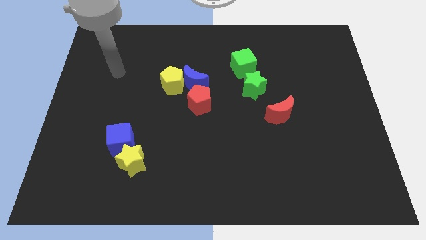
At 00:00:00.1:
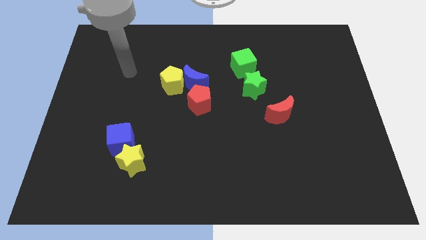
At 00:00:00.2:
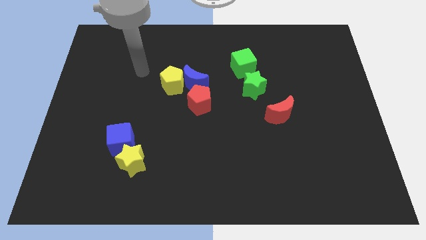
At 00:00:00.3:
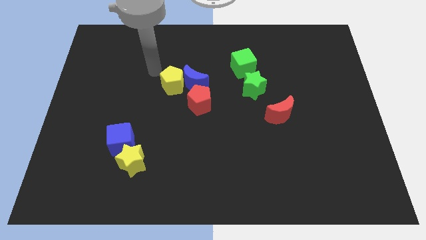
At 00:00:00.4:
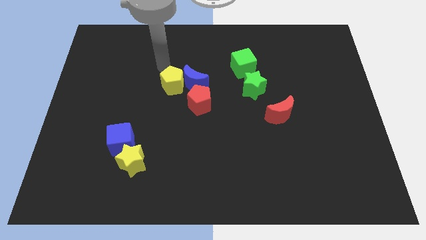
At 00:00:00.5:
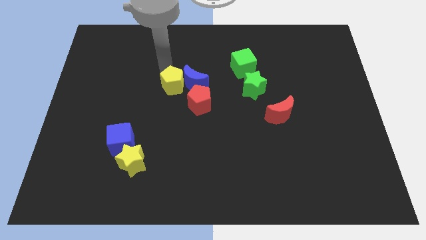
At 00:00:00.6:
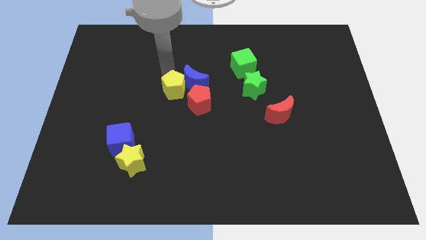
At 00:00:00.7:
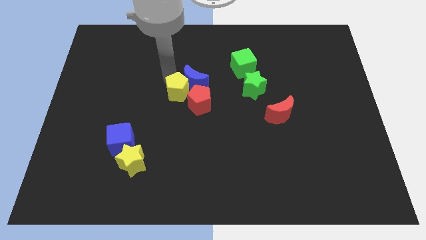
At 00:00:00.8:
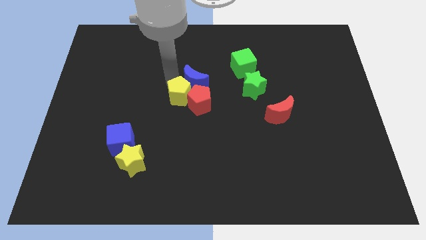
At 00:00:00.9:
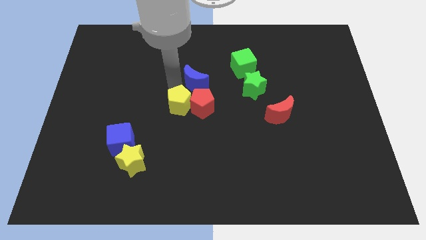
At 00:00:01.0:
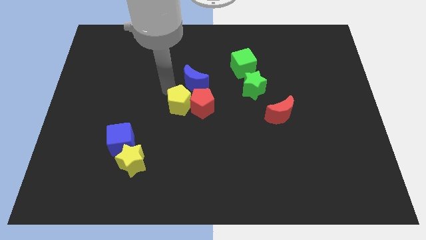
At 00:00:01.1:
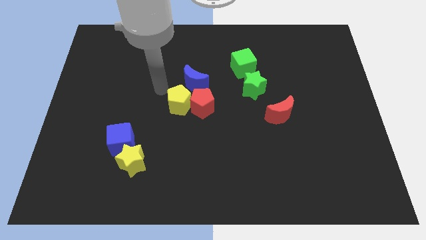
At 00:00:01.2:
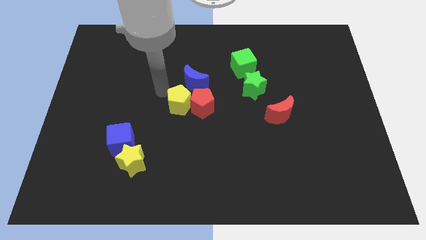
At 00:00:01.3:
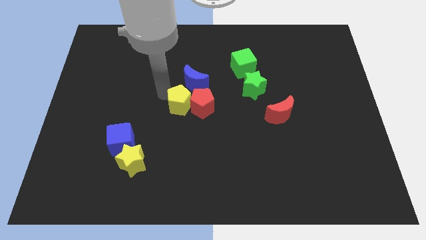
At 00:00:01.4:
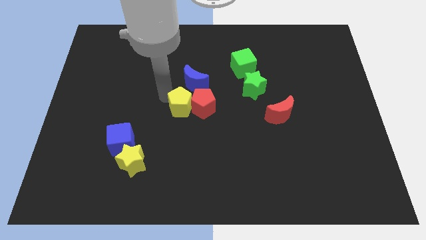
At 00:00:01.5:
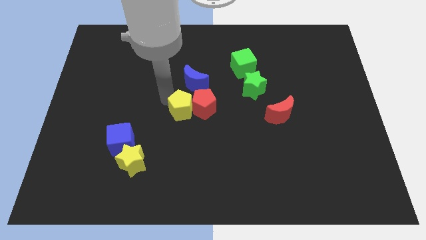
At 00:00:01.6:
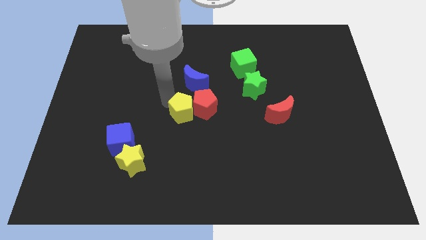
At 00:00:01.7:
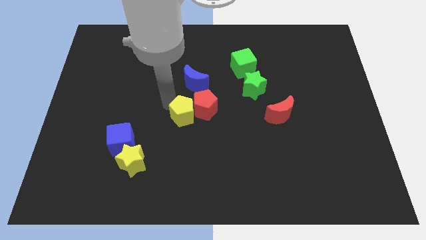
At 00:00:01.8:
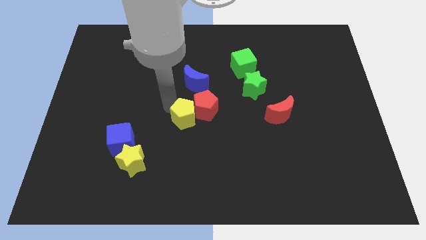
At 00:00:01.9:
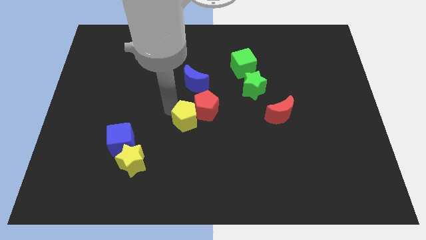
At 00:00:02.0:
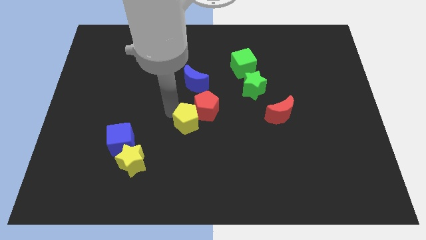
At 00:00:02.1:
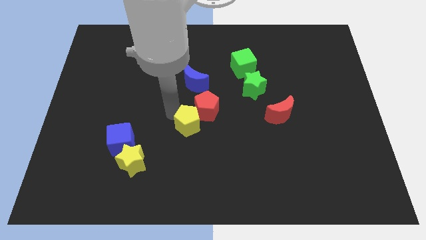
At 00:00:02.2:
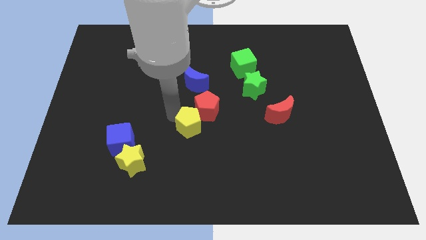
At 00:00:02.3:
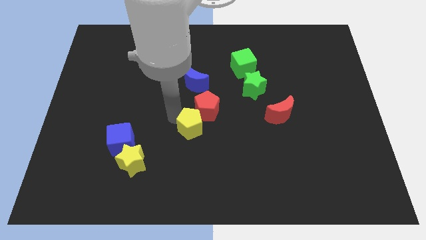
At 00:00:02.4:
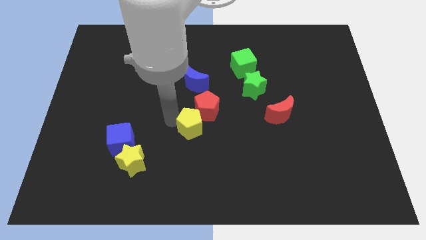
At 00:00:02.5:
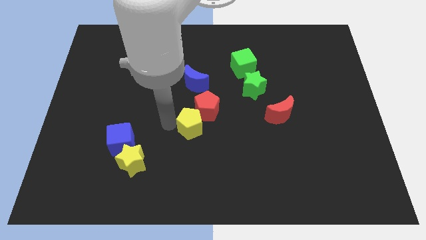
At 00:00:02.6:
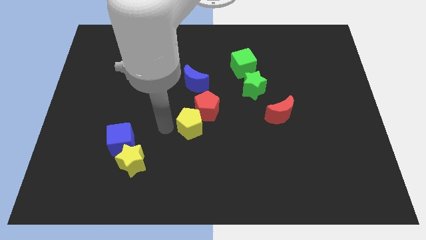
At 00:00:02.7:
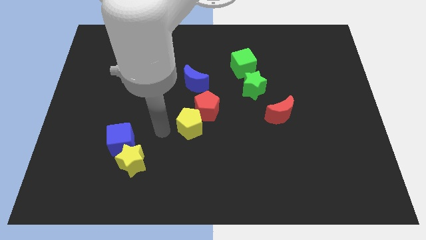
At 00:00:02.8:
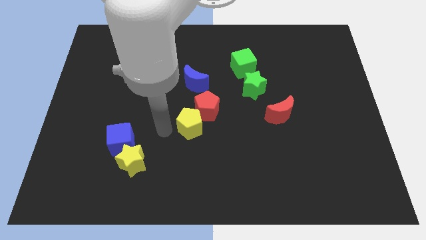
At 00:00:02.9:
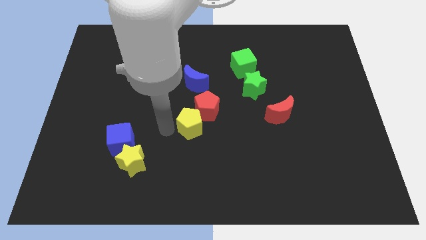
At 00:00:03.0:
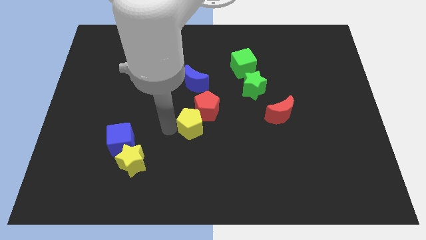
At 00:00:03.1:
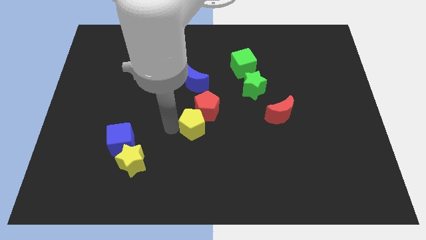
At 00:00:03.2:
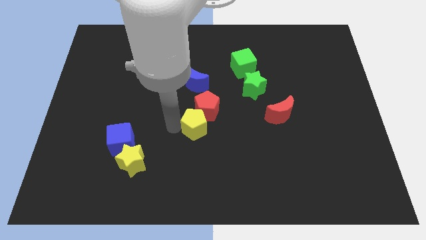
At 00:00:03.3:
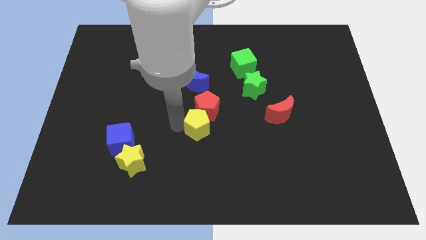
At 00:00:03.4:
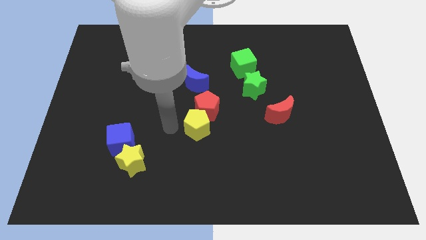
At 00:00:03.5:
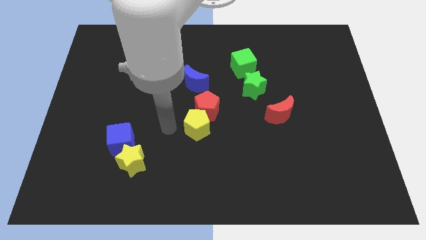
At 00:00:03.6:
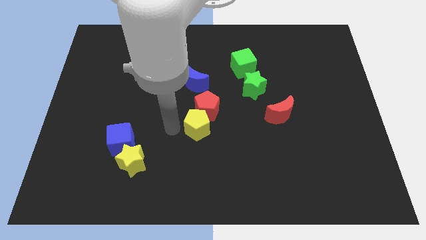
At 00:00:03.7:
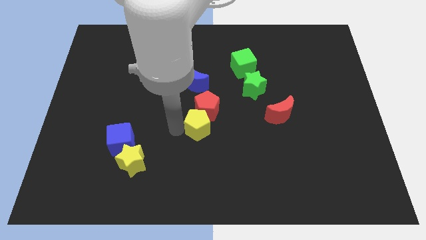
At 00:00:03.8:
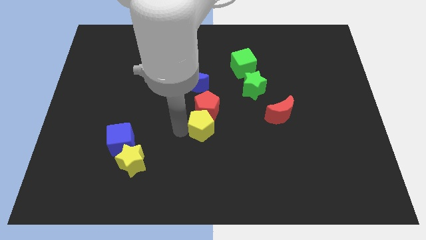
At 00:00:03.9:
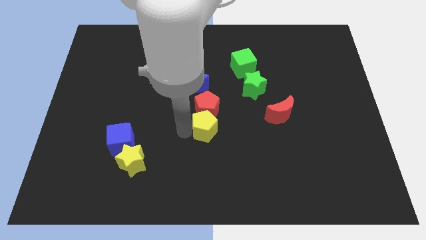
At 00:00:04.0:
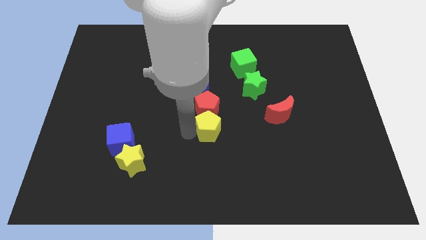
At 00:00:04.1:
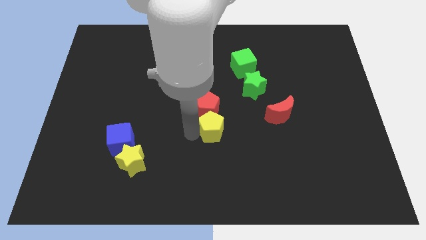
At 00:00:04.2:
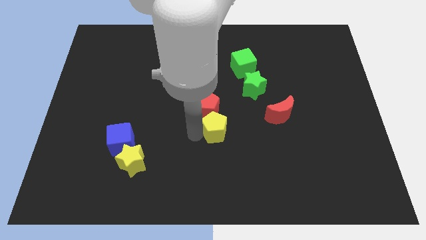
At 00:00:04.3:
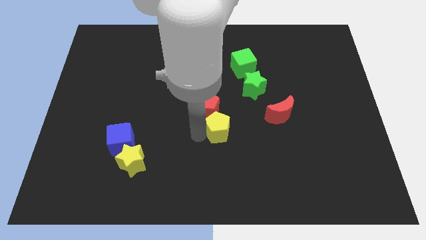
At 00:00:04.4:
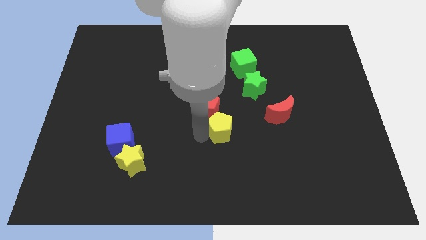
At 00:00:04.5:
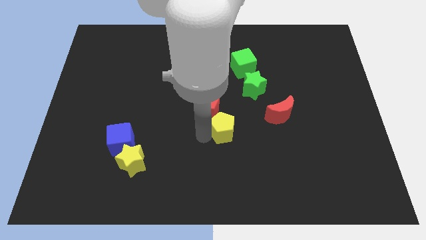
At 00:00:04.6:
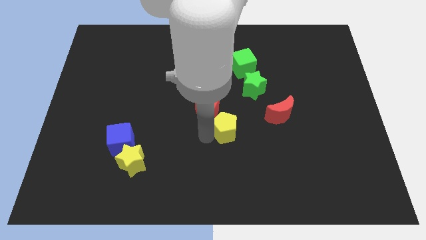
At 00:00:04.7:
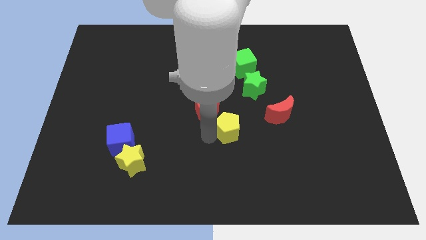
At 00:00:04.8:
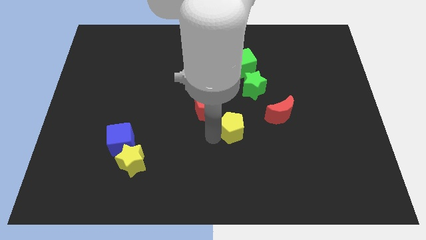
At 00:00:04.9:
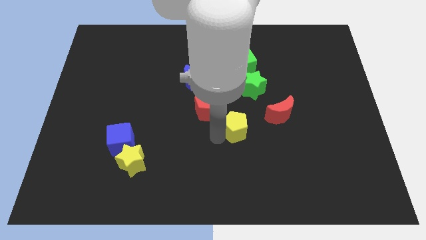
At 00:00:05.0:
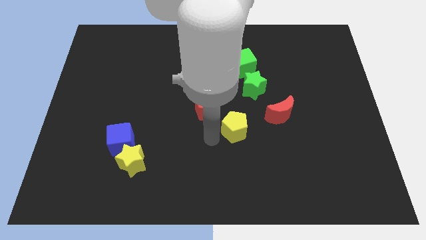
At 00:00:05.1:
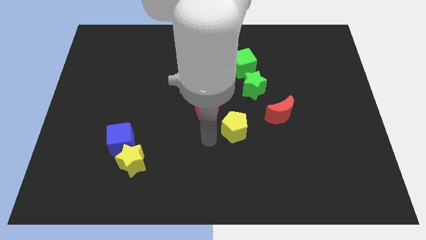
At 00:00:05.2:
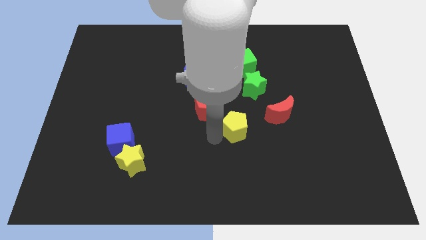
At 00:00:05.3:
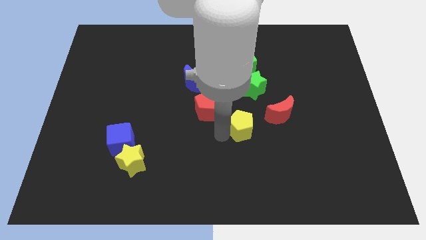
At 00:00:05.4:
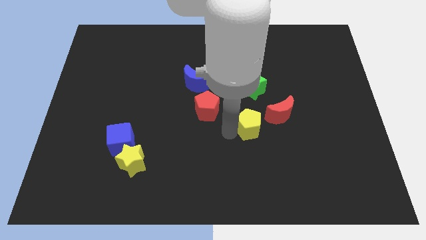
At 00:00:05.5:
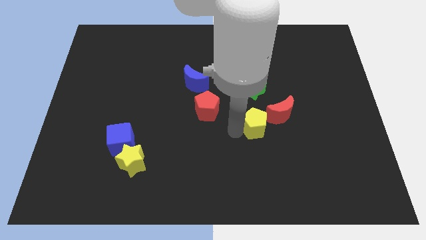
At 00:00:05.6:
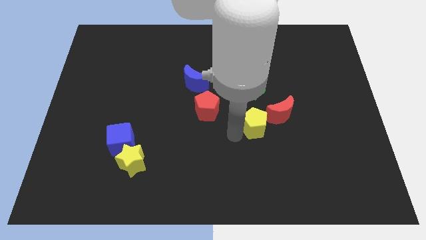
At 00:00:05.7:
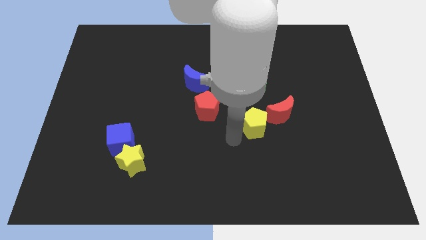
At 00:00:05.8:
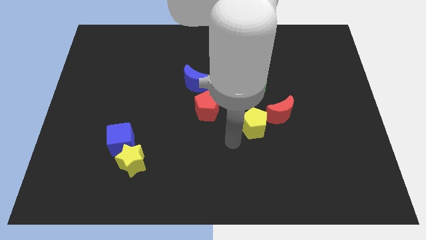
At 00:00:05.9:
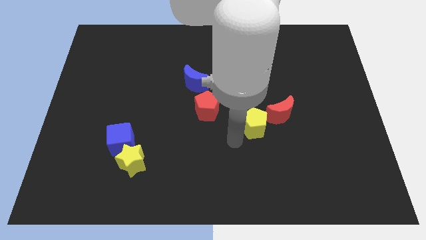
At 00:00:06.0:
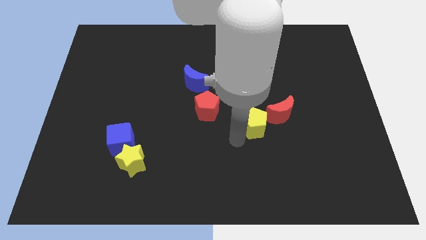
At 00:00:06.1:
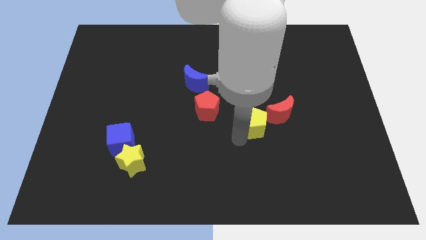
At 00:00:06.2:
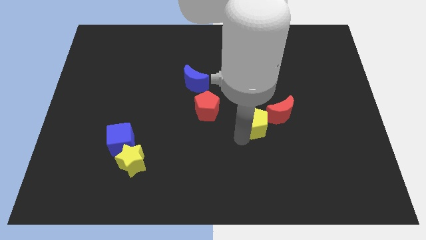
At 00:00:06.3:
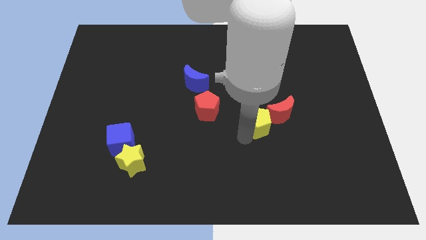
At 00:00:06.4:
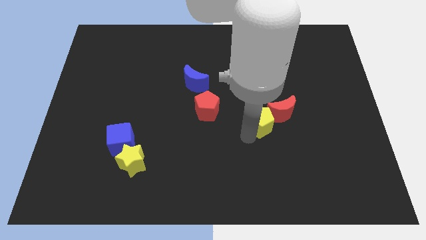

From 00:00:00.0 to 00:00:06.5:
slide the yellow pentagon towards the red moon

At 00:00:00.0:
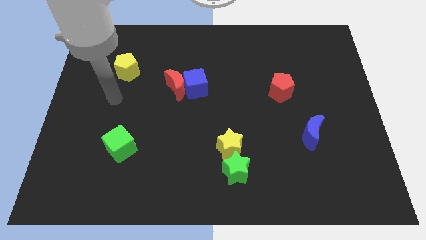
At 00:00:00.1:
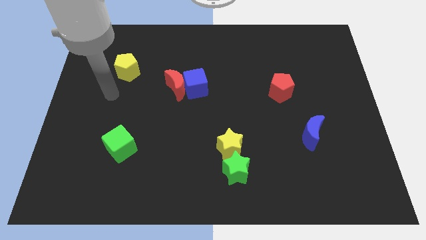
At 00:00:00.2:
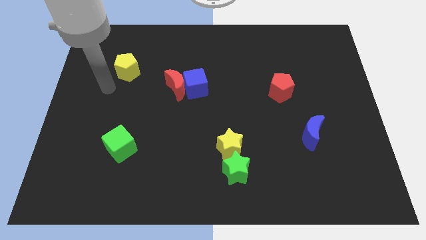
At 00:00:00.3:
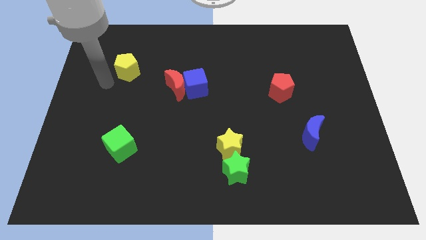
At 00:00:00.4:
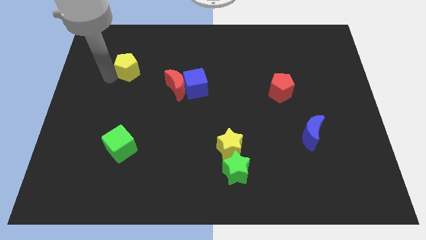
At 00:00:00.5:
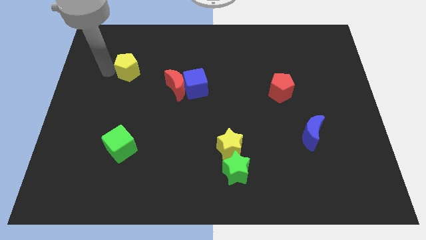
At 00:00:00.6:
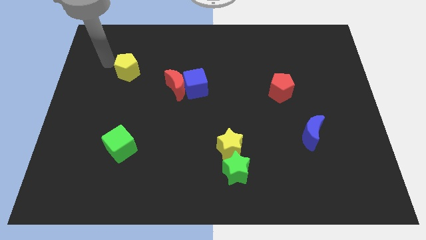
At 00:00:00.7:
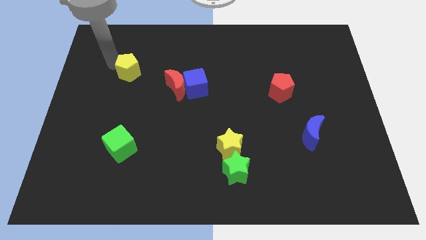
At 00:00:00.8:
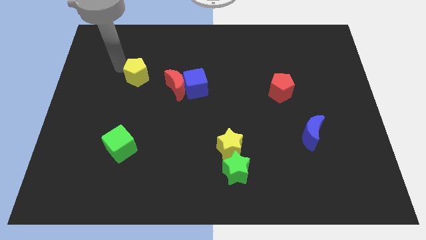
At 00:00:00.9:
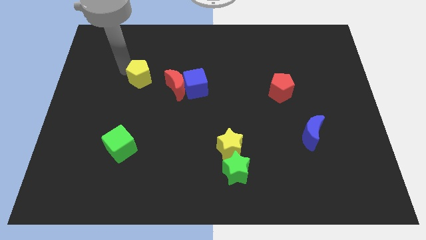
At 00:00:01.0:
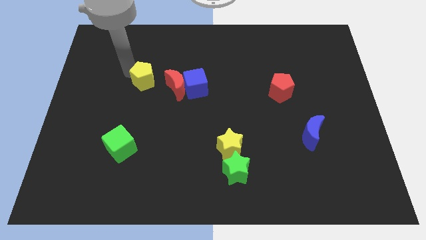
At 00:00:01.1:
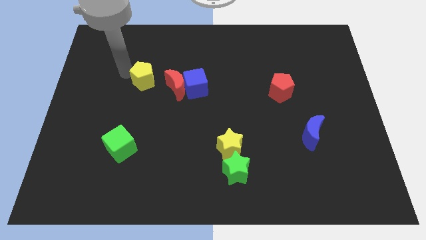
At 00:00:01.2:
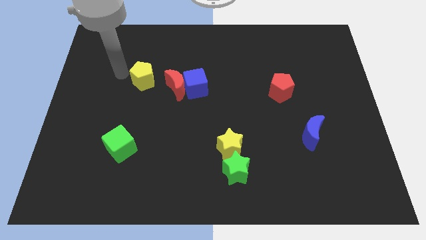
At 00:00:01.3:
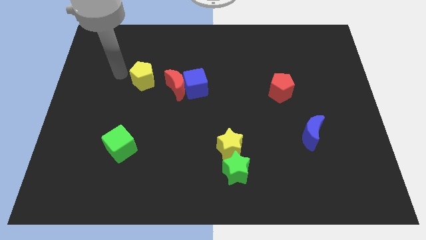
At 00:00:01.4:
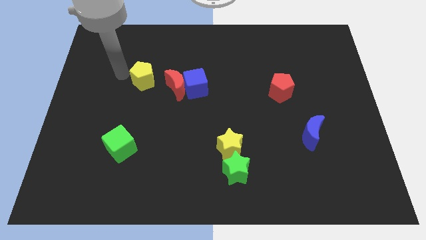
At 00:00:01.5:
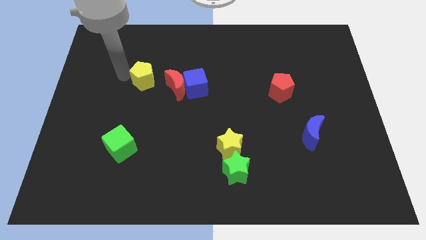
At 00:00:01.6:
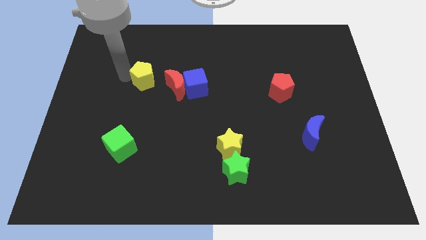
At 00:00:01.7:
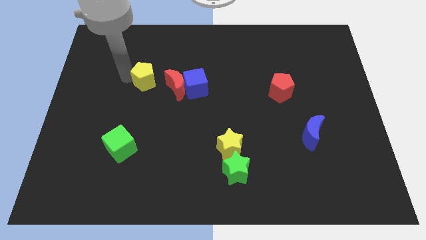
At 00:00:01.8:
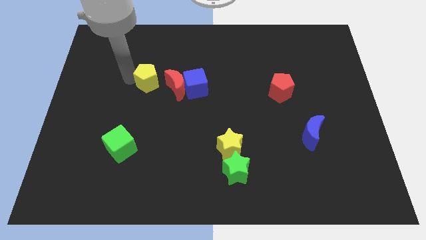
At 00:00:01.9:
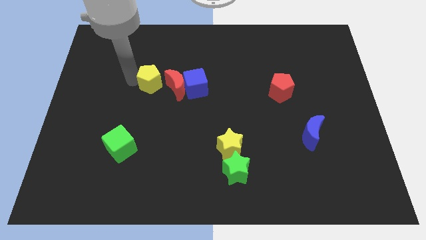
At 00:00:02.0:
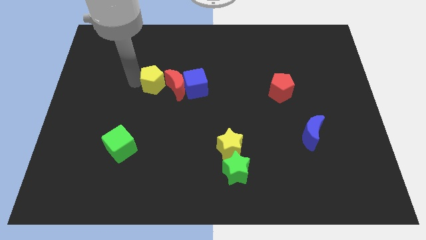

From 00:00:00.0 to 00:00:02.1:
move the yellow pentagon close to the red moon
